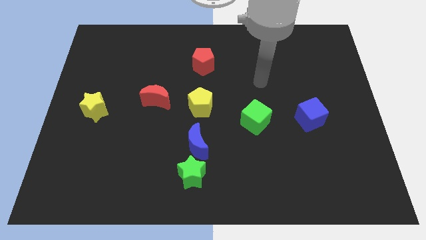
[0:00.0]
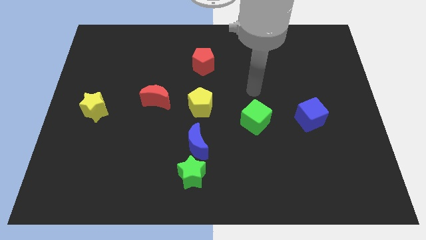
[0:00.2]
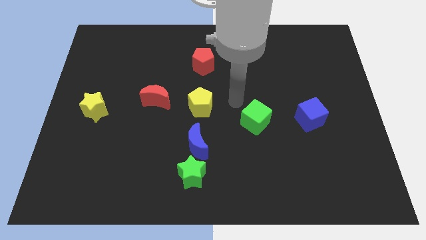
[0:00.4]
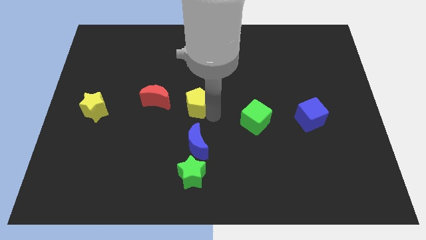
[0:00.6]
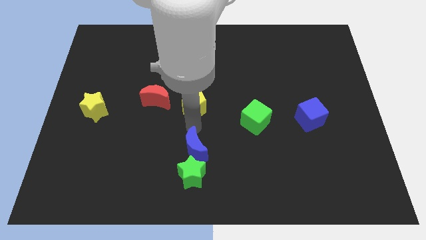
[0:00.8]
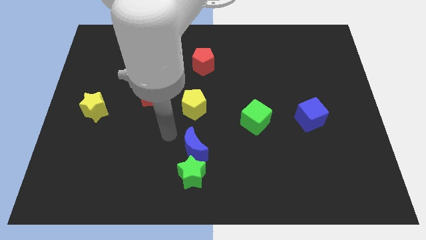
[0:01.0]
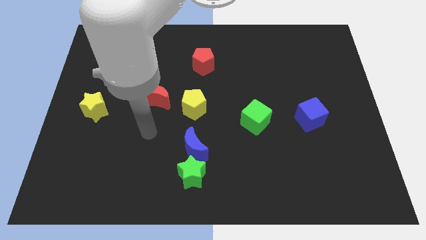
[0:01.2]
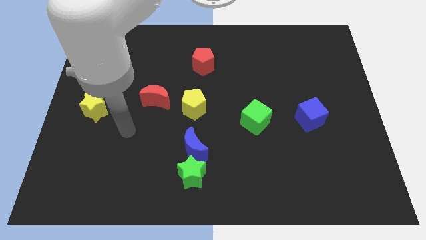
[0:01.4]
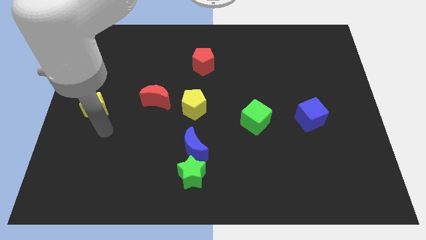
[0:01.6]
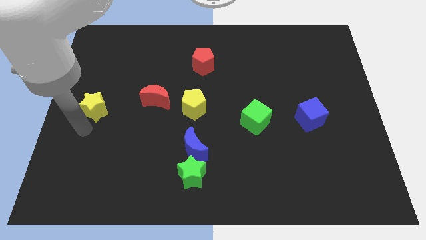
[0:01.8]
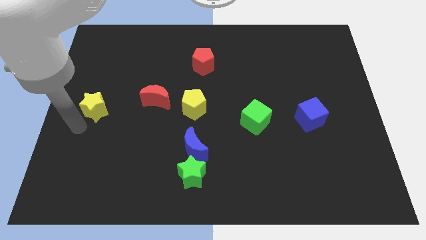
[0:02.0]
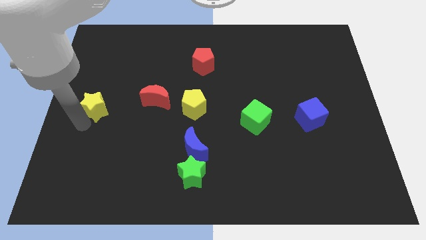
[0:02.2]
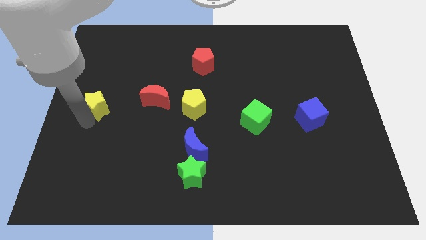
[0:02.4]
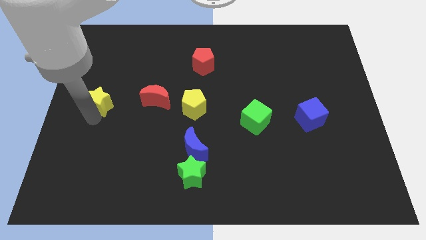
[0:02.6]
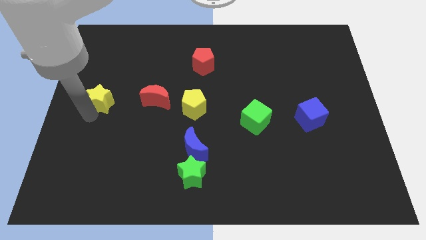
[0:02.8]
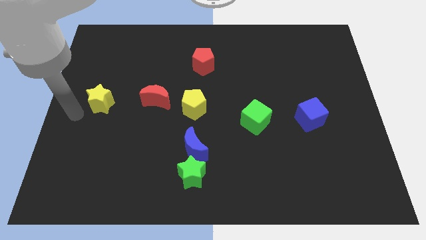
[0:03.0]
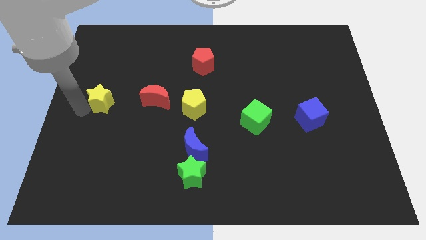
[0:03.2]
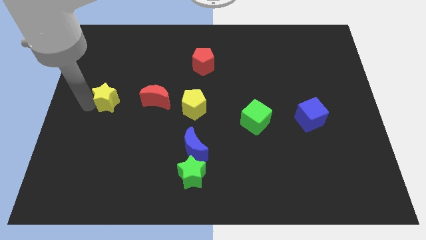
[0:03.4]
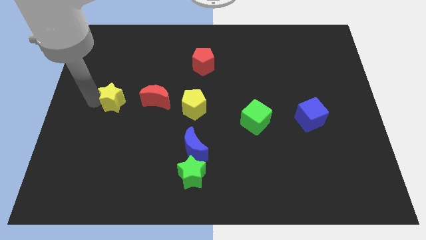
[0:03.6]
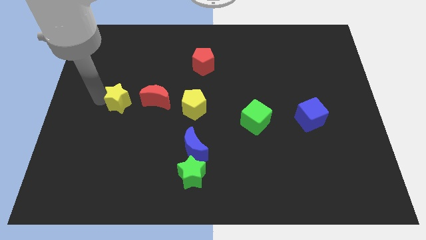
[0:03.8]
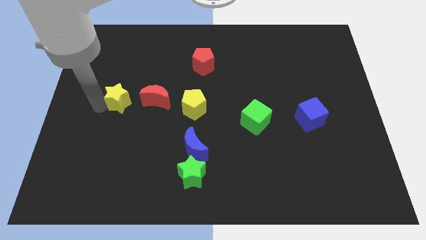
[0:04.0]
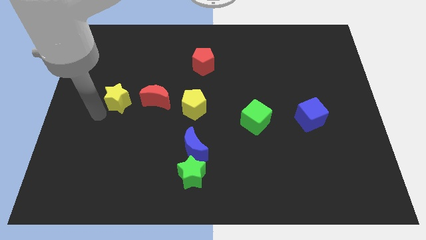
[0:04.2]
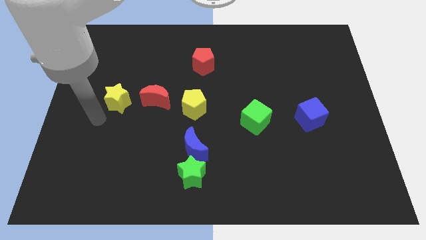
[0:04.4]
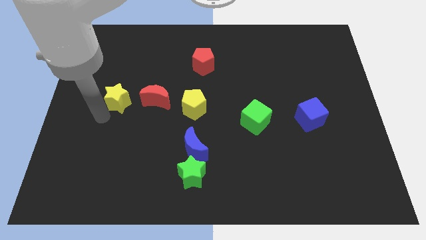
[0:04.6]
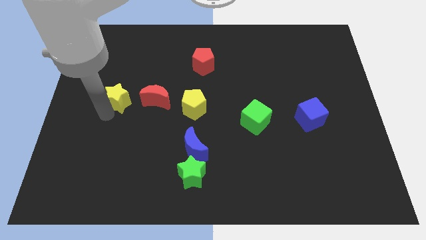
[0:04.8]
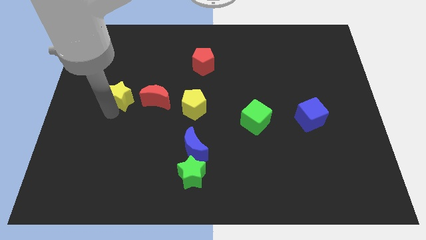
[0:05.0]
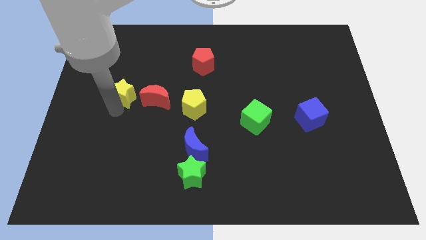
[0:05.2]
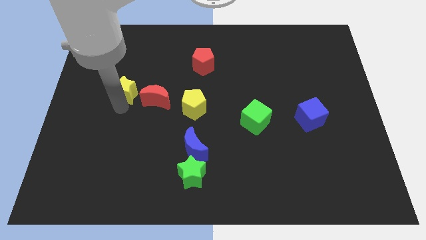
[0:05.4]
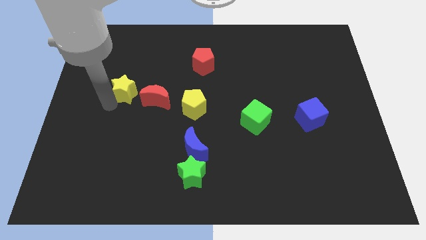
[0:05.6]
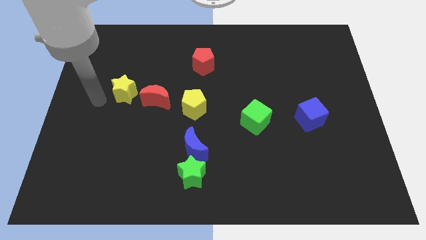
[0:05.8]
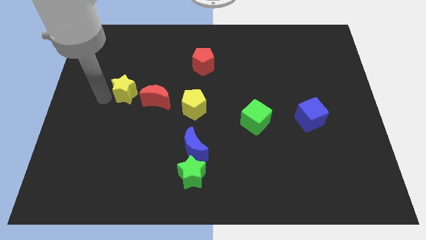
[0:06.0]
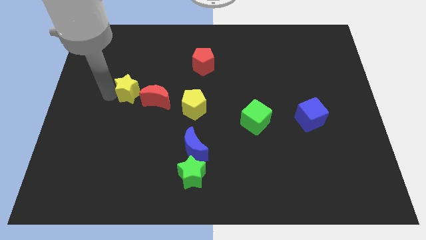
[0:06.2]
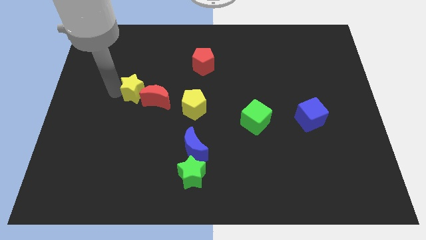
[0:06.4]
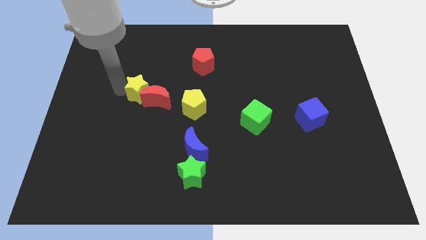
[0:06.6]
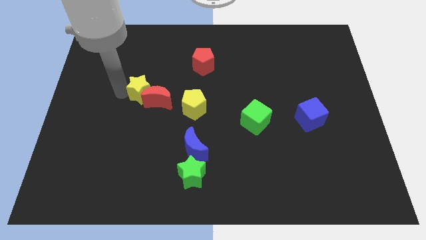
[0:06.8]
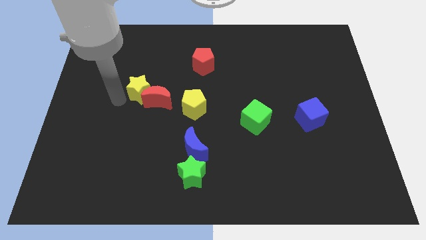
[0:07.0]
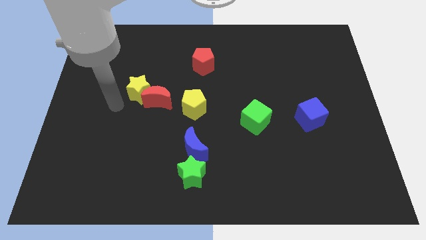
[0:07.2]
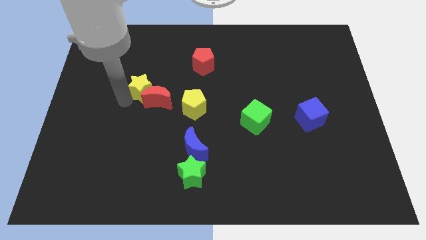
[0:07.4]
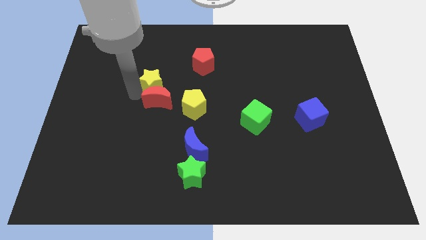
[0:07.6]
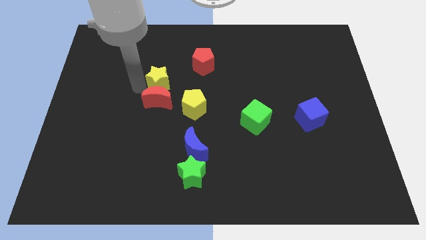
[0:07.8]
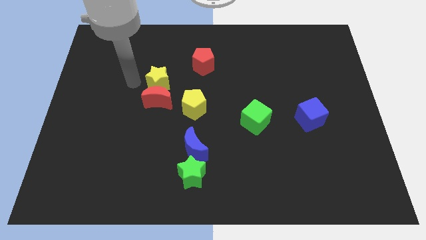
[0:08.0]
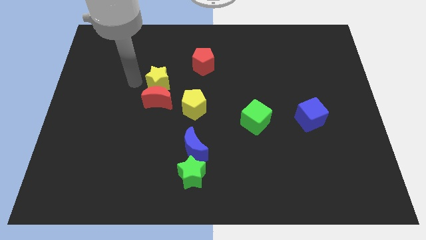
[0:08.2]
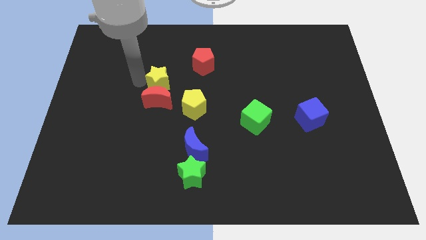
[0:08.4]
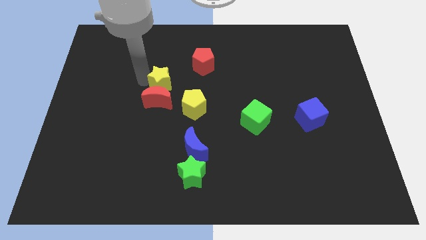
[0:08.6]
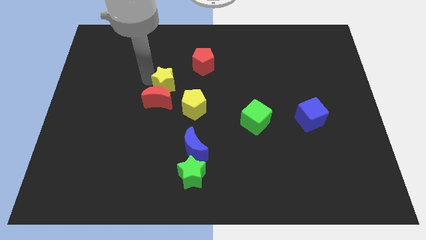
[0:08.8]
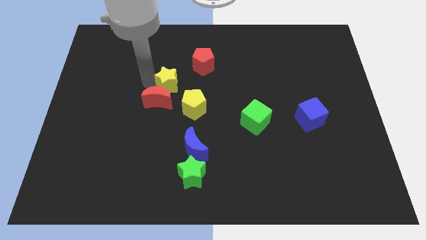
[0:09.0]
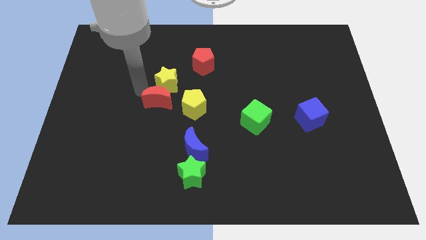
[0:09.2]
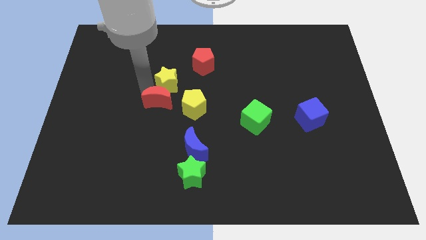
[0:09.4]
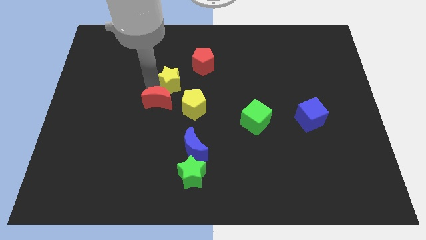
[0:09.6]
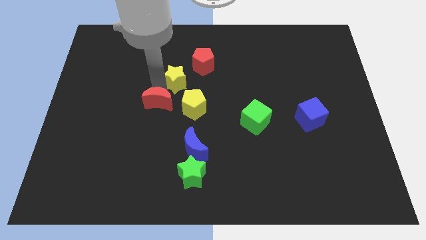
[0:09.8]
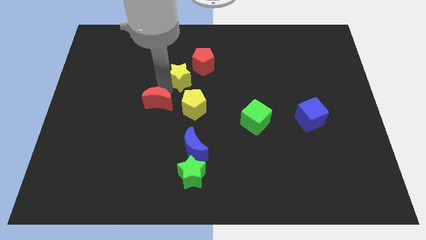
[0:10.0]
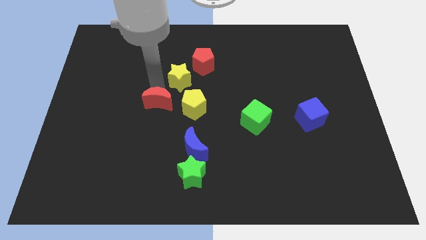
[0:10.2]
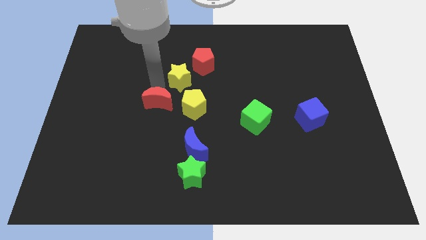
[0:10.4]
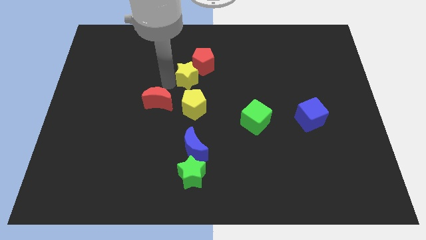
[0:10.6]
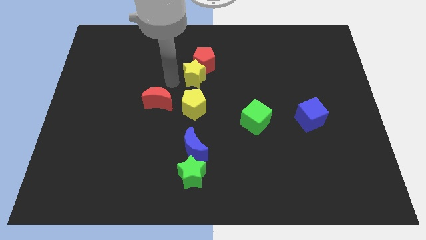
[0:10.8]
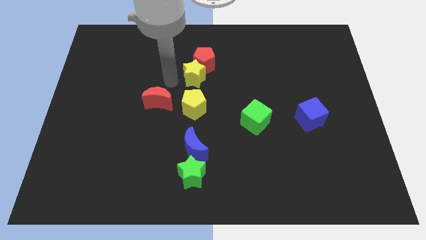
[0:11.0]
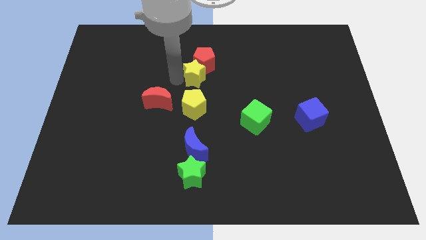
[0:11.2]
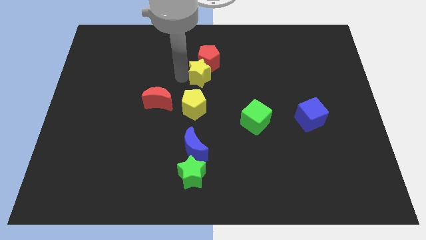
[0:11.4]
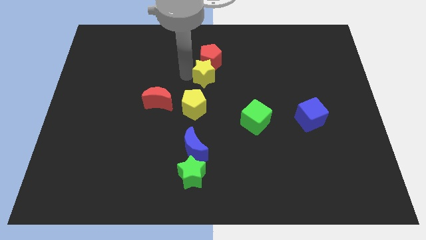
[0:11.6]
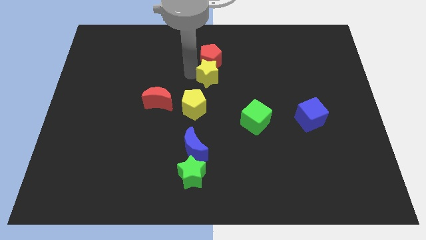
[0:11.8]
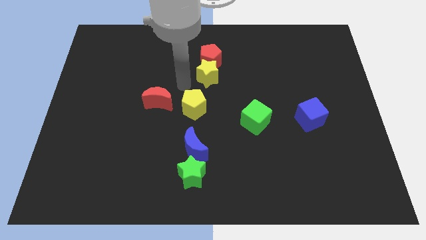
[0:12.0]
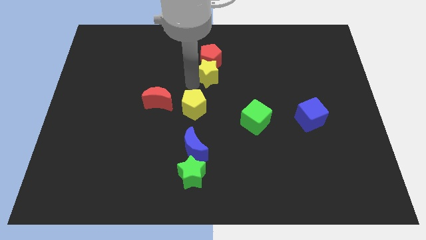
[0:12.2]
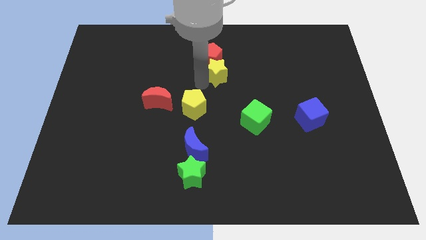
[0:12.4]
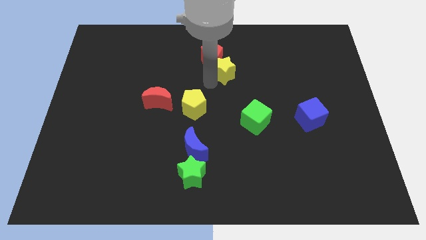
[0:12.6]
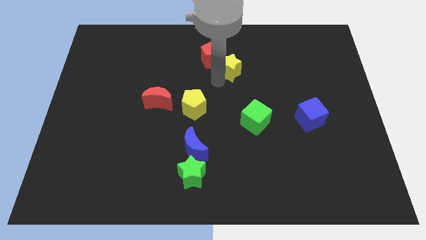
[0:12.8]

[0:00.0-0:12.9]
slide the yellow star to the right side of the red pentagon
